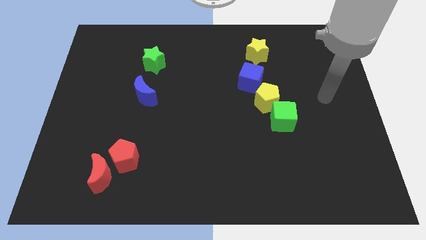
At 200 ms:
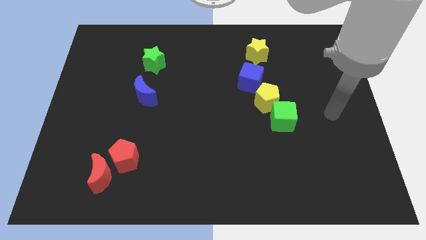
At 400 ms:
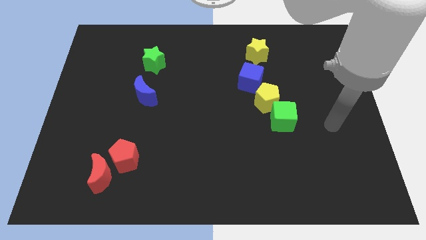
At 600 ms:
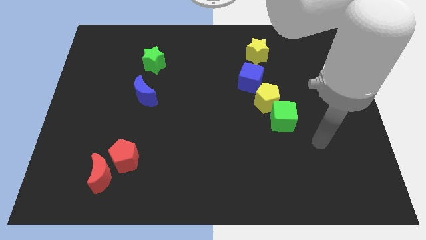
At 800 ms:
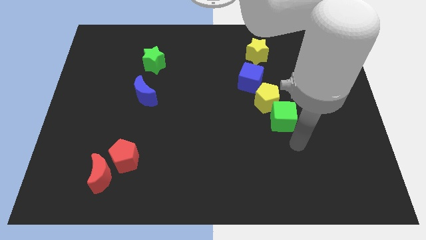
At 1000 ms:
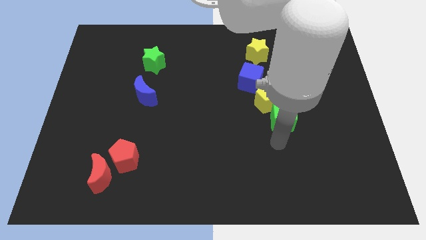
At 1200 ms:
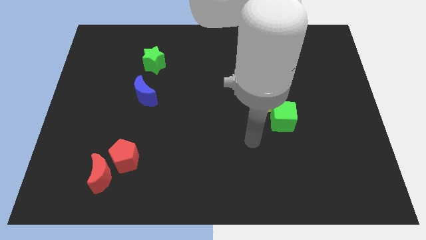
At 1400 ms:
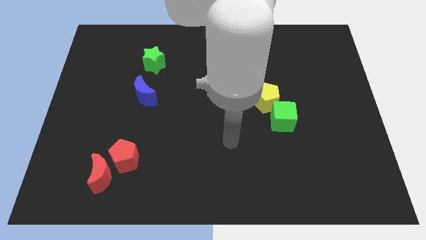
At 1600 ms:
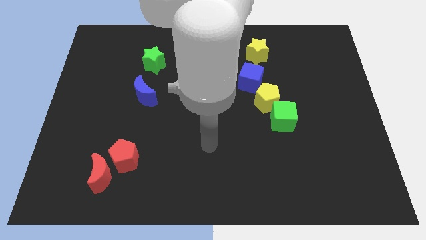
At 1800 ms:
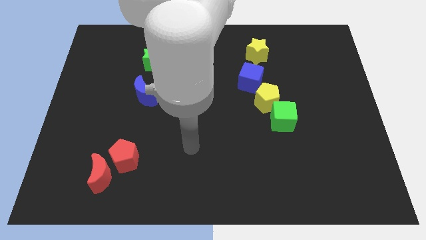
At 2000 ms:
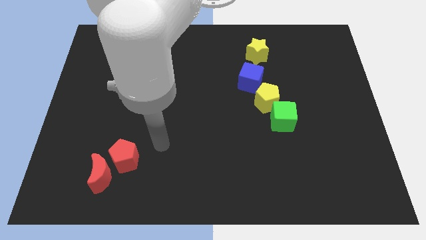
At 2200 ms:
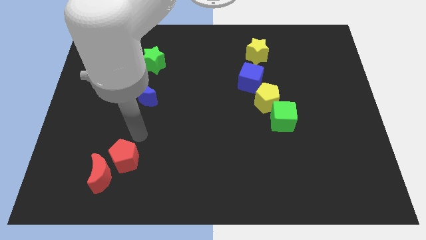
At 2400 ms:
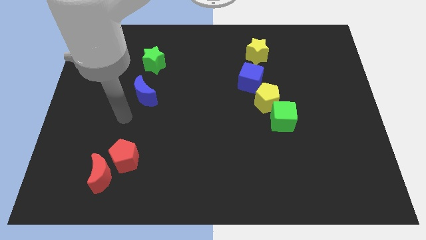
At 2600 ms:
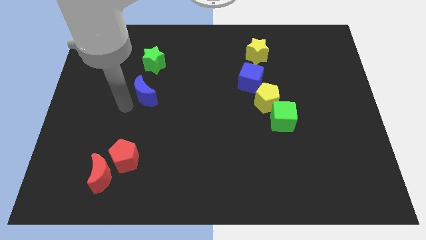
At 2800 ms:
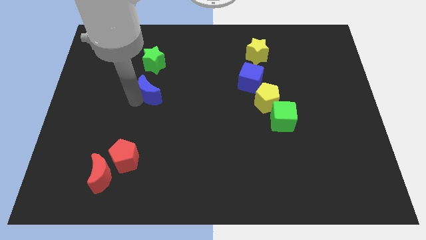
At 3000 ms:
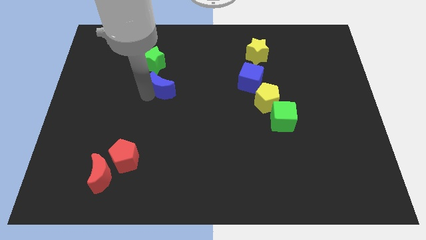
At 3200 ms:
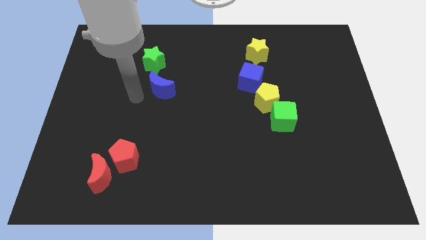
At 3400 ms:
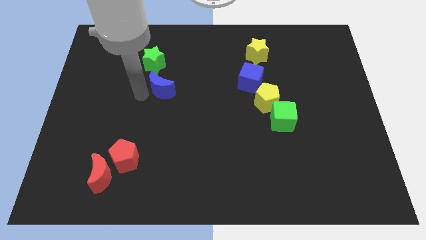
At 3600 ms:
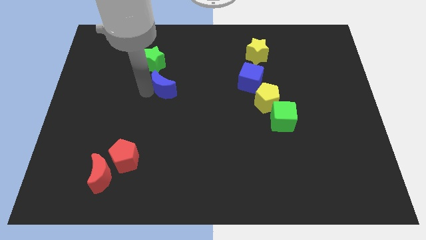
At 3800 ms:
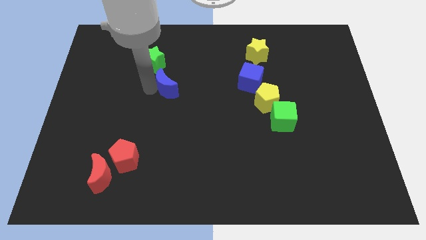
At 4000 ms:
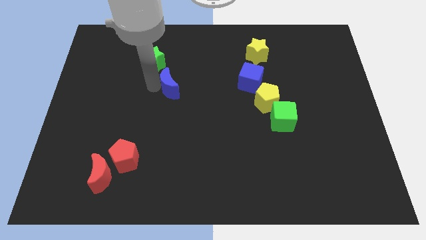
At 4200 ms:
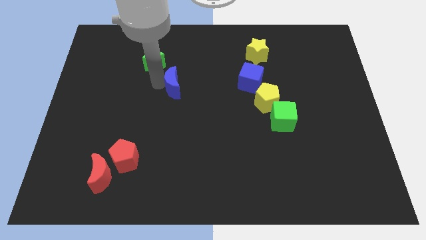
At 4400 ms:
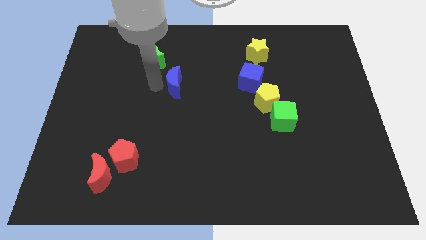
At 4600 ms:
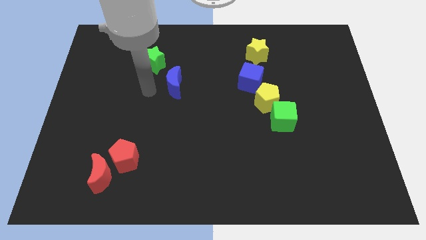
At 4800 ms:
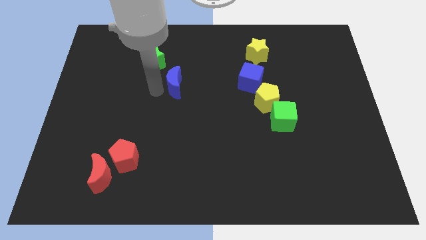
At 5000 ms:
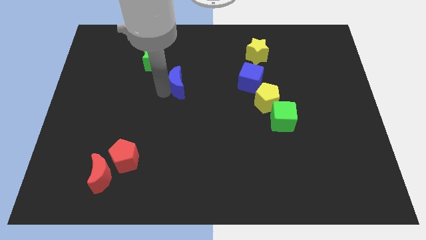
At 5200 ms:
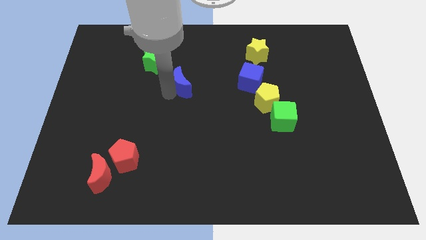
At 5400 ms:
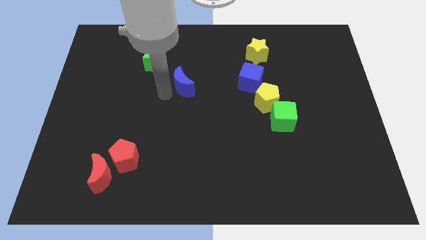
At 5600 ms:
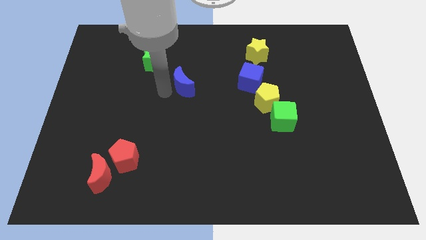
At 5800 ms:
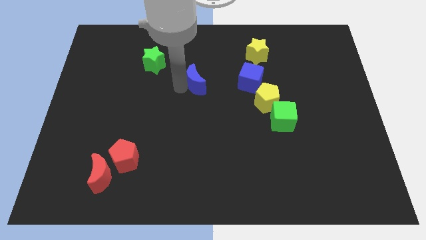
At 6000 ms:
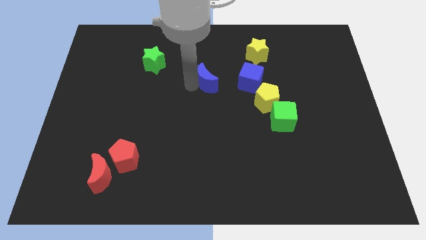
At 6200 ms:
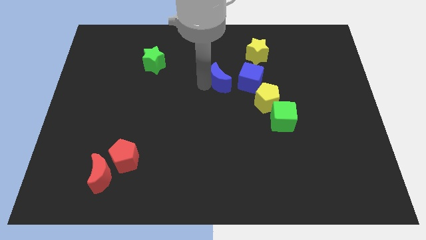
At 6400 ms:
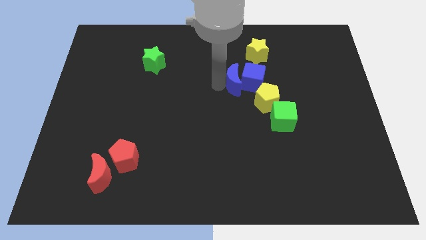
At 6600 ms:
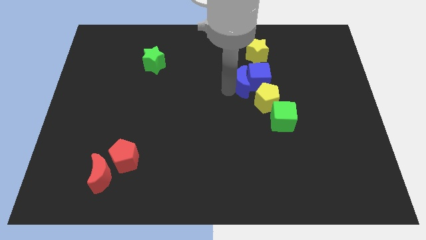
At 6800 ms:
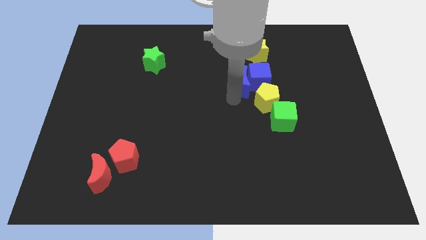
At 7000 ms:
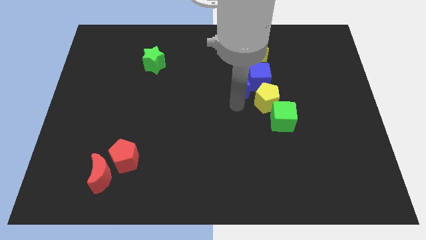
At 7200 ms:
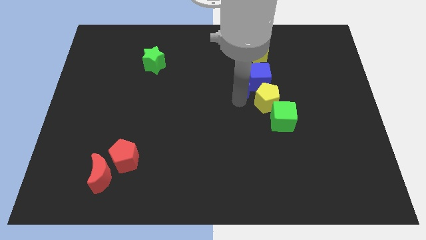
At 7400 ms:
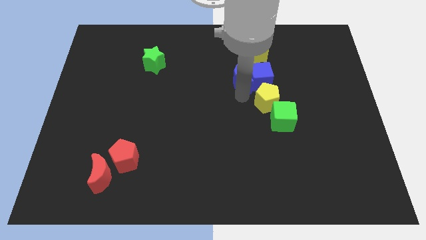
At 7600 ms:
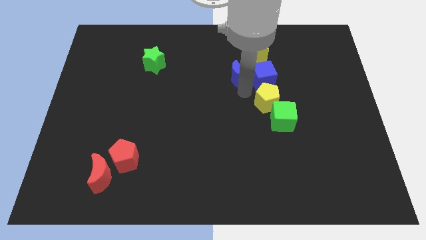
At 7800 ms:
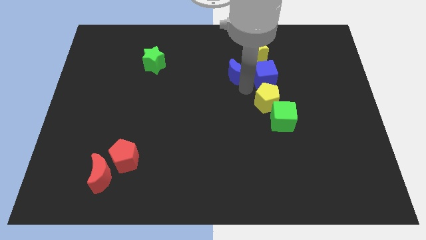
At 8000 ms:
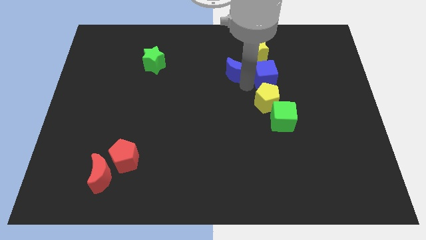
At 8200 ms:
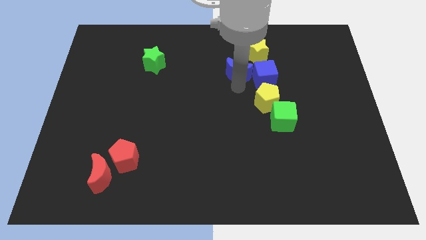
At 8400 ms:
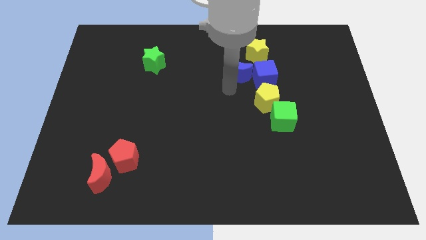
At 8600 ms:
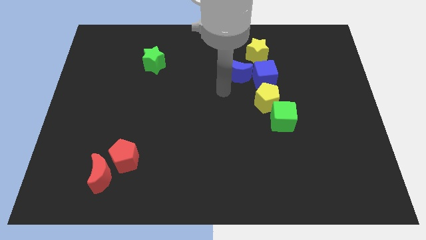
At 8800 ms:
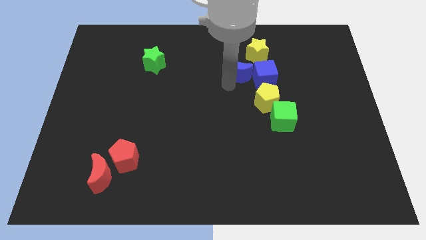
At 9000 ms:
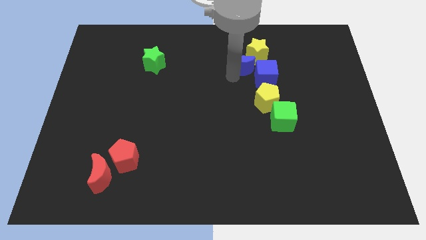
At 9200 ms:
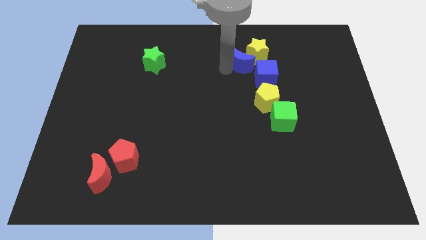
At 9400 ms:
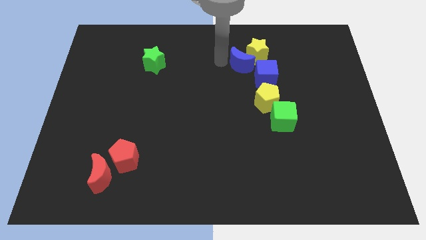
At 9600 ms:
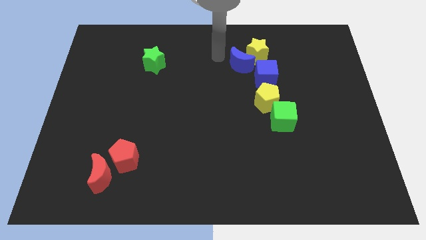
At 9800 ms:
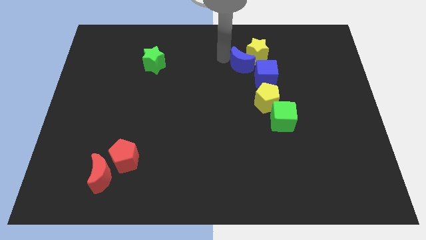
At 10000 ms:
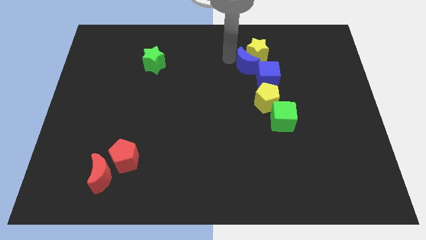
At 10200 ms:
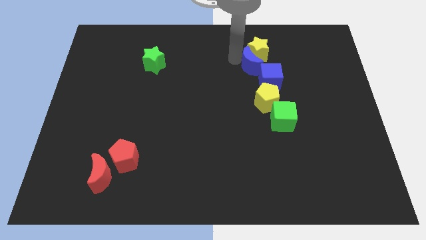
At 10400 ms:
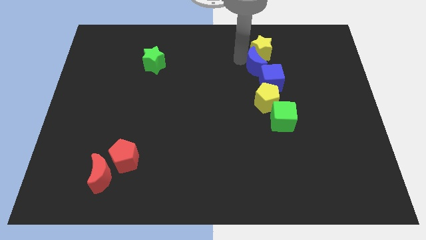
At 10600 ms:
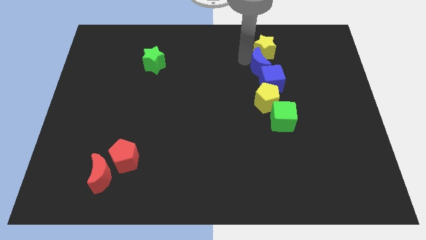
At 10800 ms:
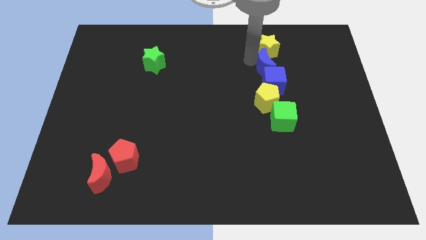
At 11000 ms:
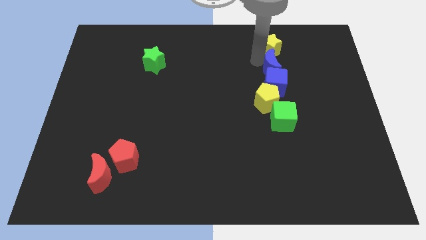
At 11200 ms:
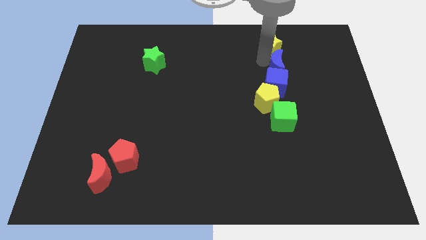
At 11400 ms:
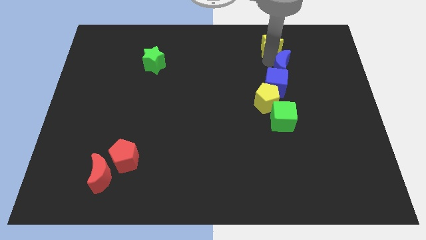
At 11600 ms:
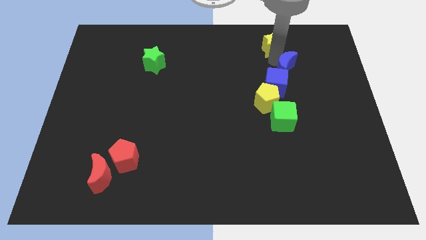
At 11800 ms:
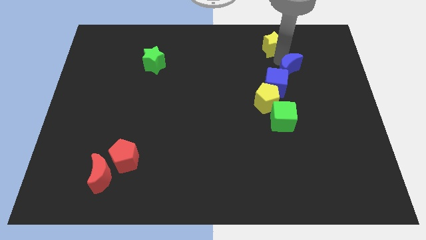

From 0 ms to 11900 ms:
put the blue moon diagonally up and to the right of the yellow pentagon

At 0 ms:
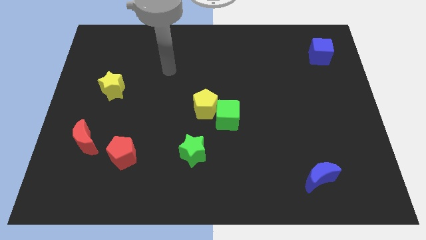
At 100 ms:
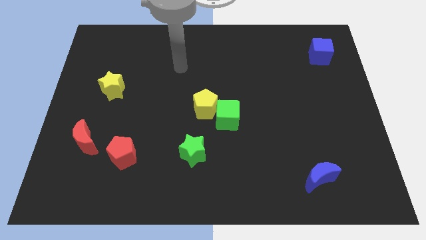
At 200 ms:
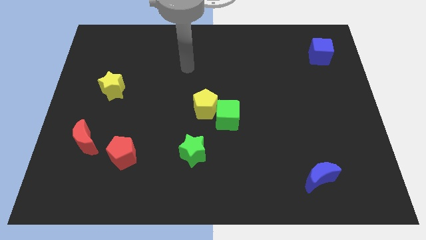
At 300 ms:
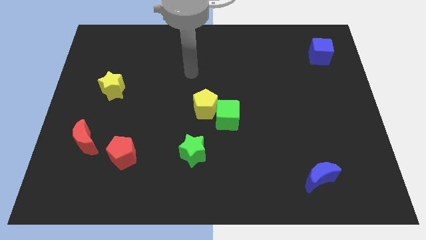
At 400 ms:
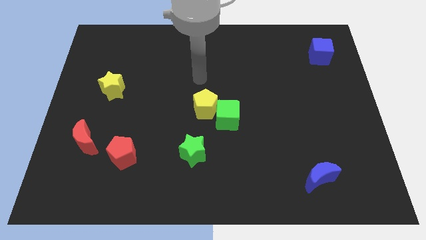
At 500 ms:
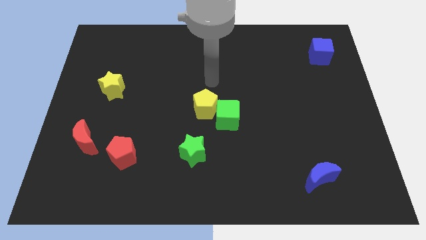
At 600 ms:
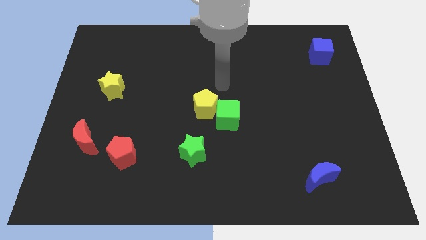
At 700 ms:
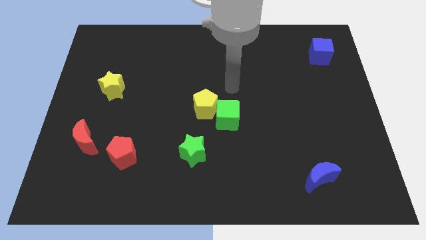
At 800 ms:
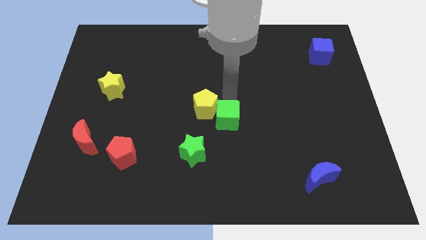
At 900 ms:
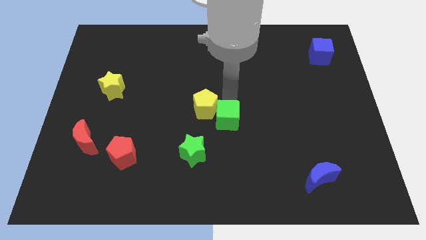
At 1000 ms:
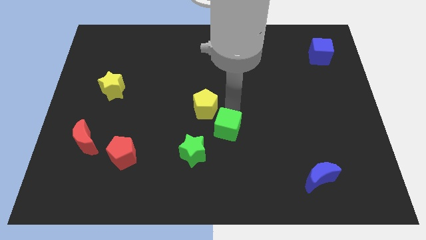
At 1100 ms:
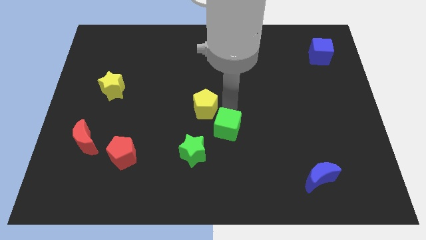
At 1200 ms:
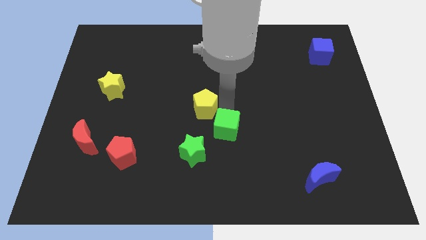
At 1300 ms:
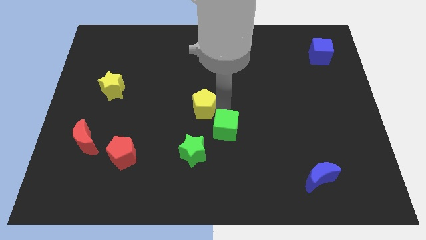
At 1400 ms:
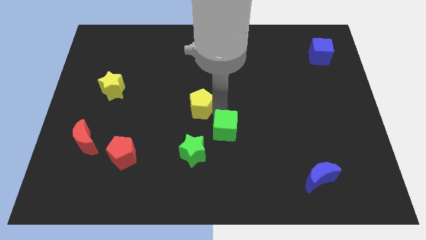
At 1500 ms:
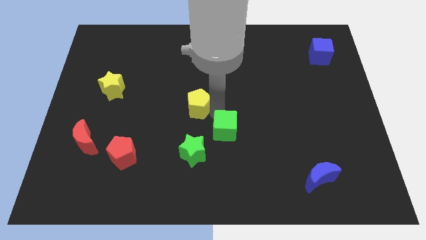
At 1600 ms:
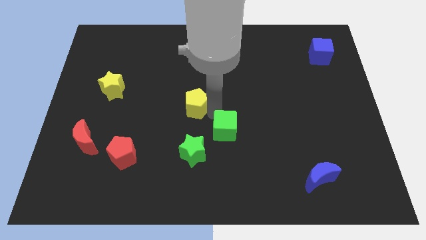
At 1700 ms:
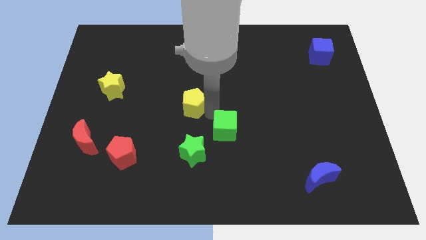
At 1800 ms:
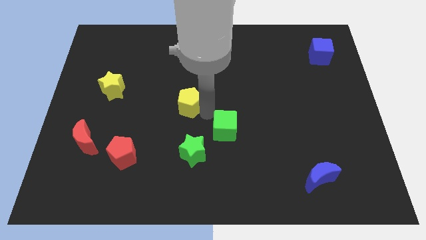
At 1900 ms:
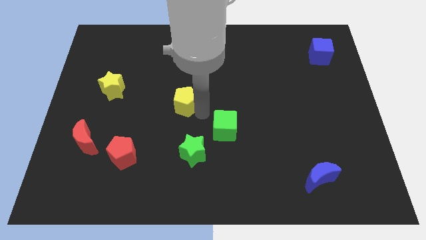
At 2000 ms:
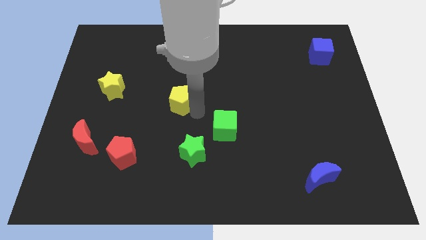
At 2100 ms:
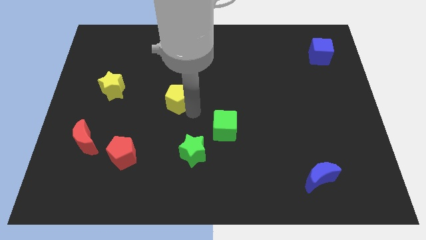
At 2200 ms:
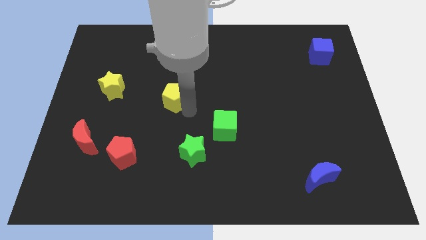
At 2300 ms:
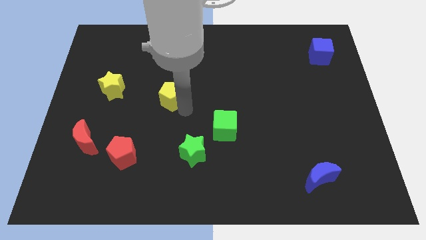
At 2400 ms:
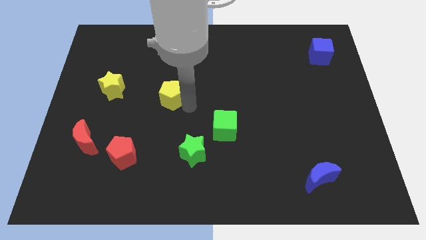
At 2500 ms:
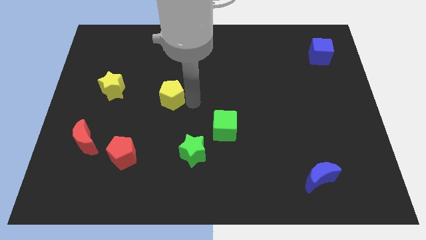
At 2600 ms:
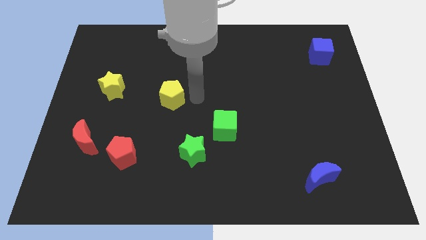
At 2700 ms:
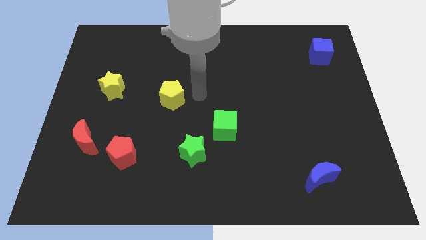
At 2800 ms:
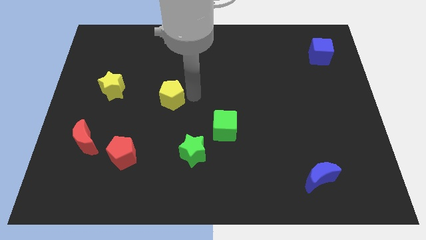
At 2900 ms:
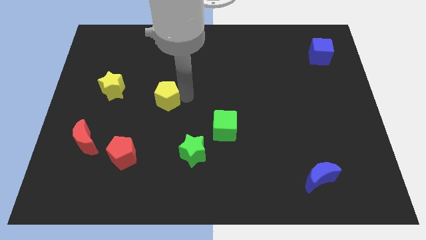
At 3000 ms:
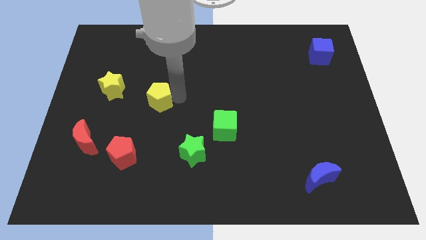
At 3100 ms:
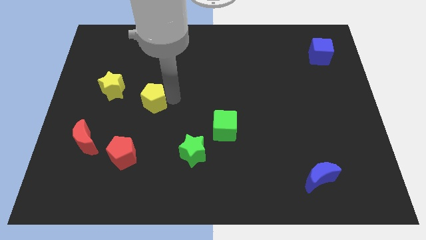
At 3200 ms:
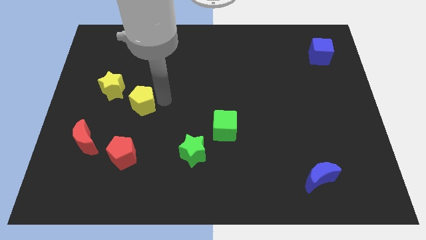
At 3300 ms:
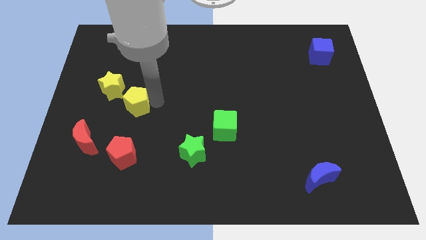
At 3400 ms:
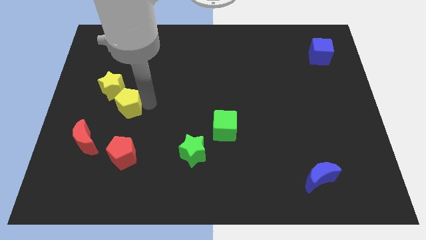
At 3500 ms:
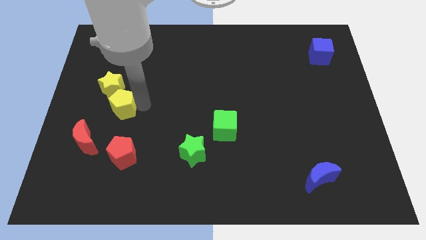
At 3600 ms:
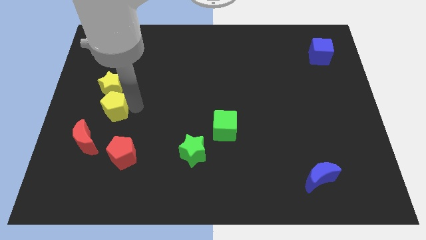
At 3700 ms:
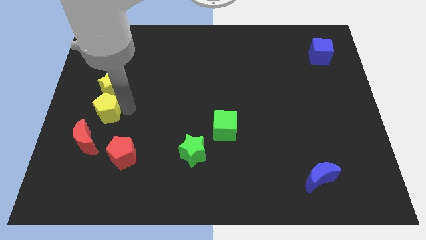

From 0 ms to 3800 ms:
put the yellow pentagon to the top of the red moon
